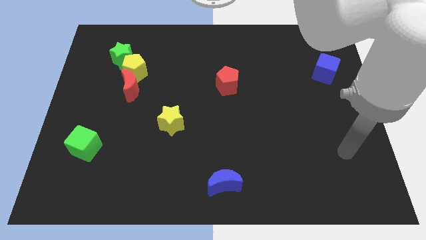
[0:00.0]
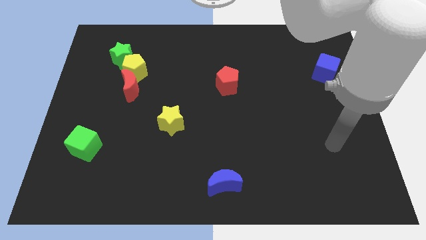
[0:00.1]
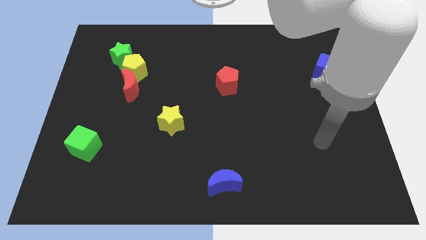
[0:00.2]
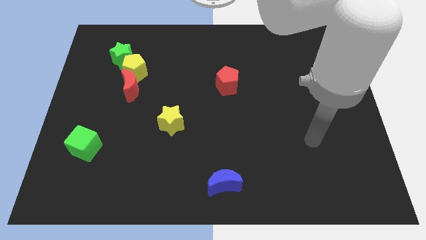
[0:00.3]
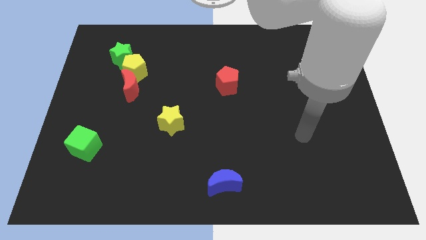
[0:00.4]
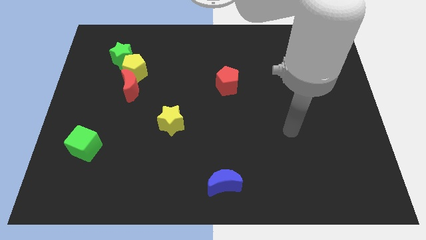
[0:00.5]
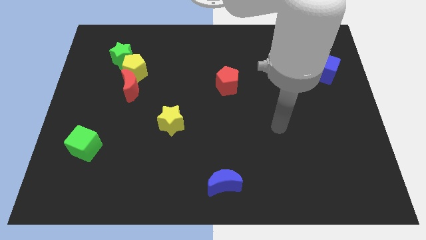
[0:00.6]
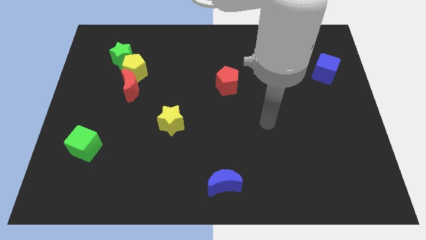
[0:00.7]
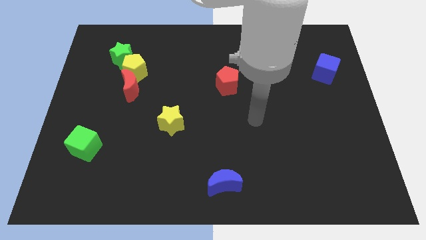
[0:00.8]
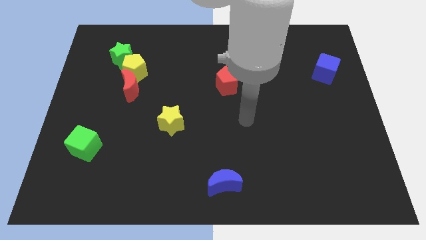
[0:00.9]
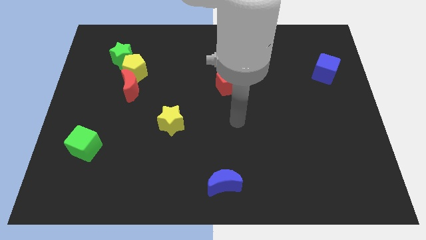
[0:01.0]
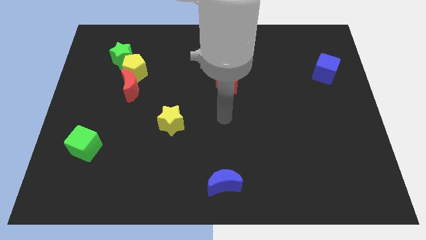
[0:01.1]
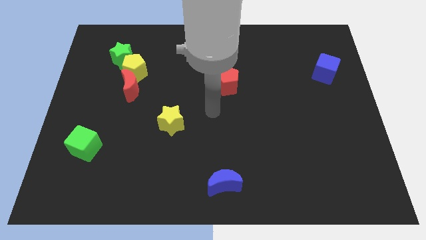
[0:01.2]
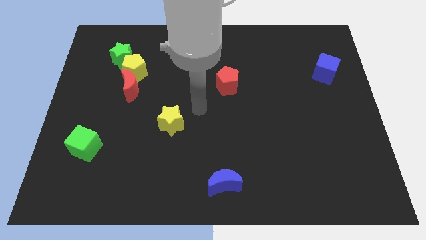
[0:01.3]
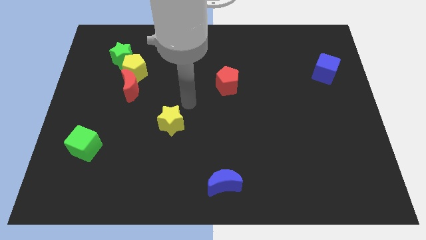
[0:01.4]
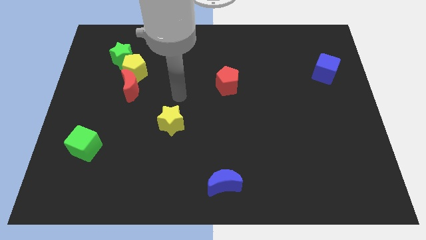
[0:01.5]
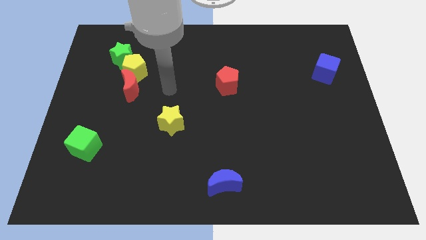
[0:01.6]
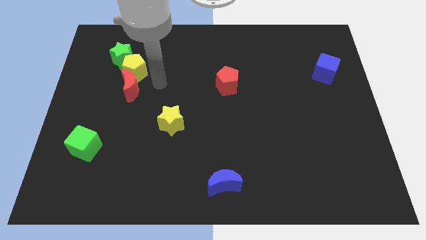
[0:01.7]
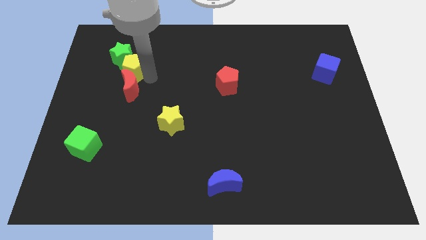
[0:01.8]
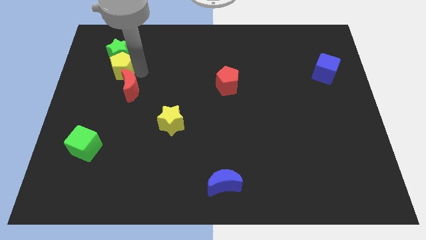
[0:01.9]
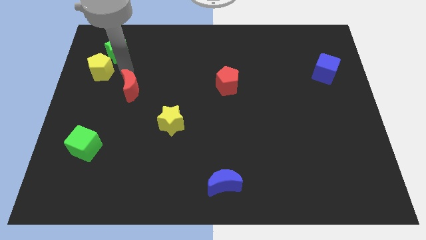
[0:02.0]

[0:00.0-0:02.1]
pull the red moon apart from the yellow pentagon

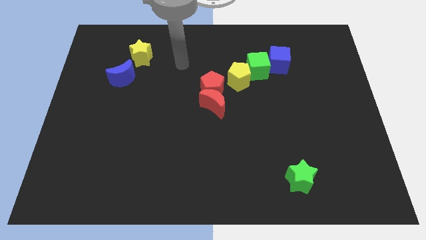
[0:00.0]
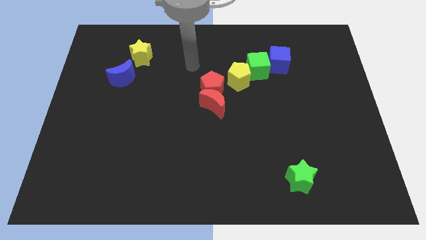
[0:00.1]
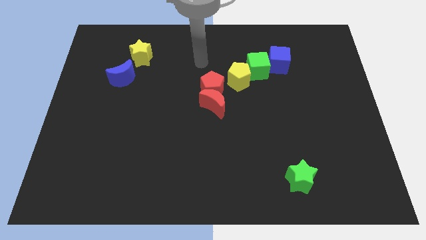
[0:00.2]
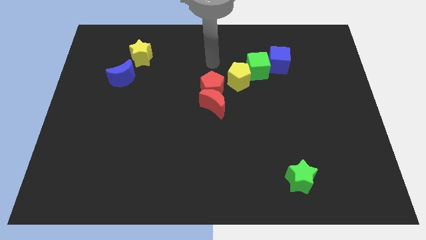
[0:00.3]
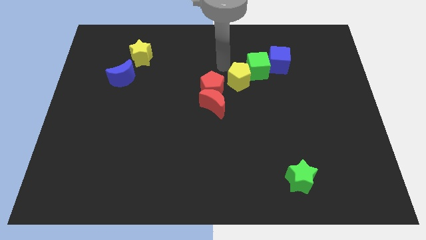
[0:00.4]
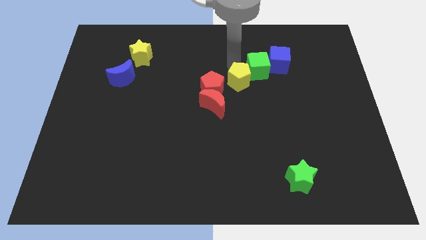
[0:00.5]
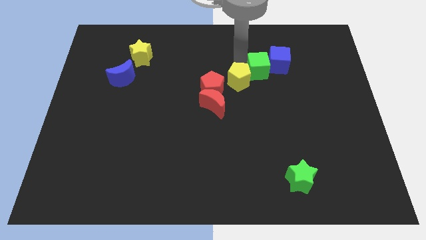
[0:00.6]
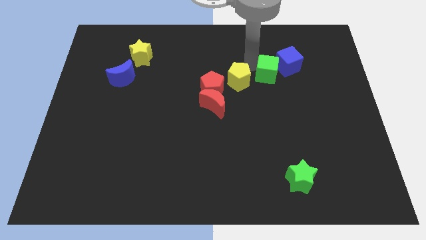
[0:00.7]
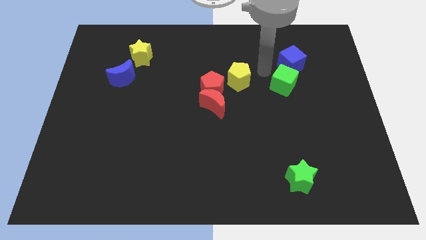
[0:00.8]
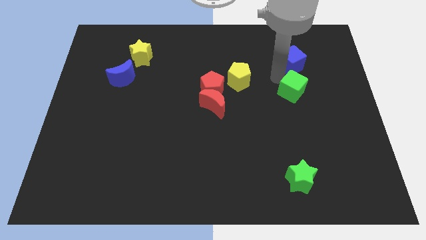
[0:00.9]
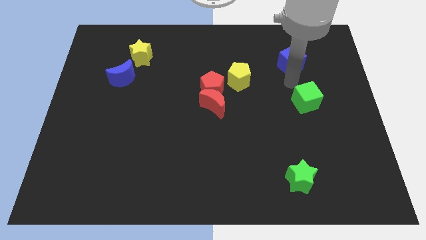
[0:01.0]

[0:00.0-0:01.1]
move the blue cube away from the green cube

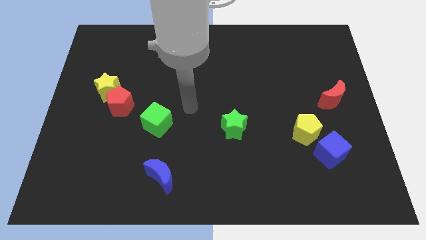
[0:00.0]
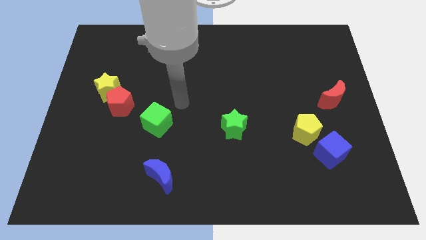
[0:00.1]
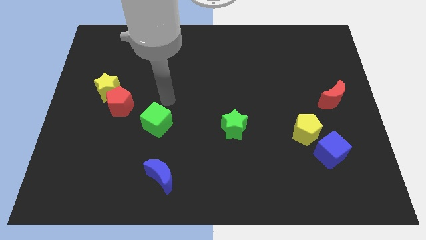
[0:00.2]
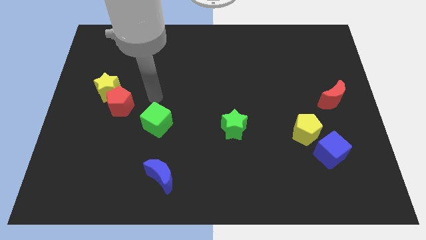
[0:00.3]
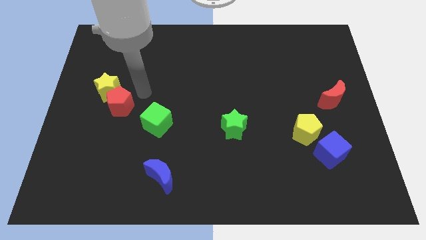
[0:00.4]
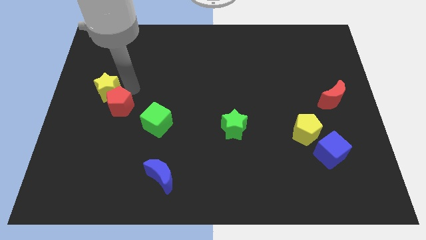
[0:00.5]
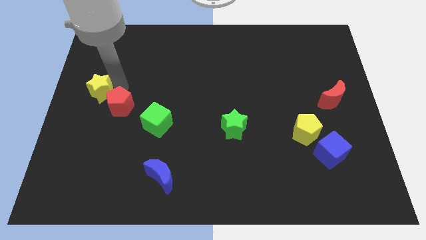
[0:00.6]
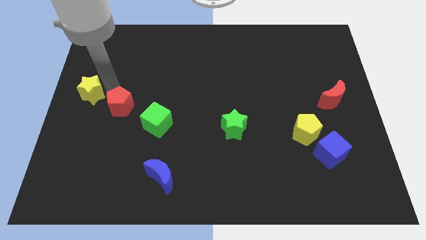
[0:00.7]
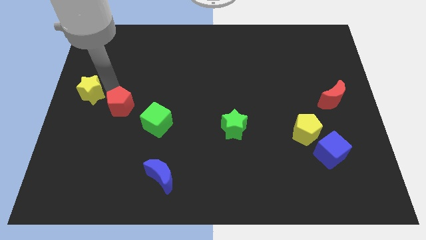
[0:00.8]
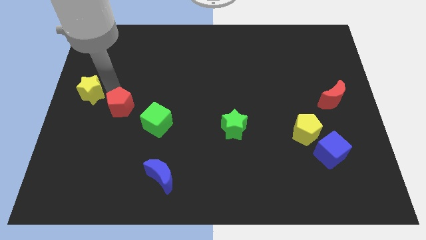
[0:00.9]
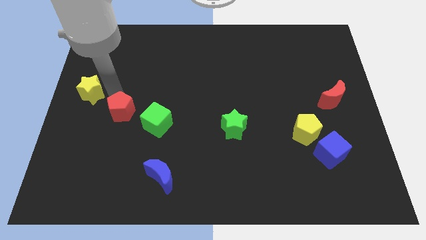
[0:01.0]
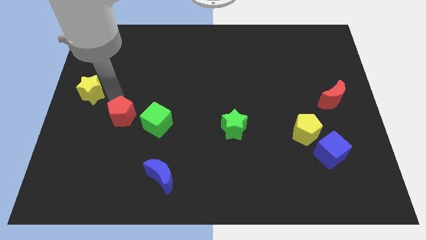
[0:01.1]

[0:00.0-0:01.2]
separate the red pentagon from the yellow star

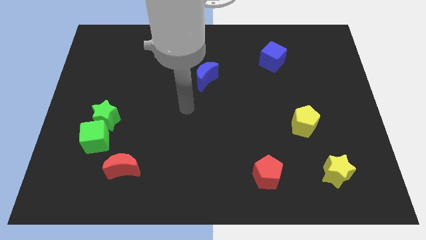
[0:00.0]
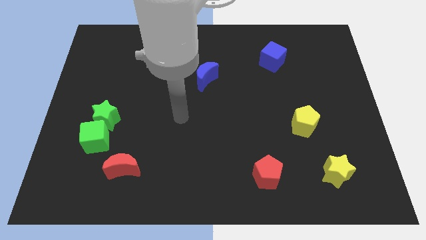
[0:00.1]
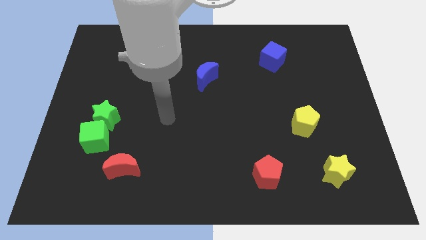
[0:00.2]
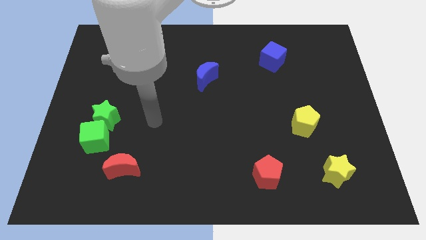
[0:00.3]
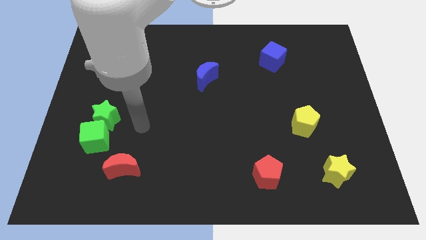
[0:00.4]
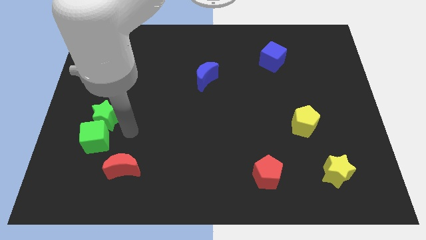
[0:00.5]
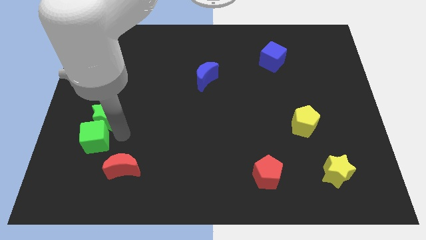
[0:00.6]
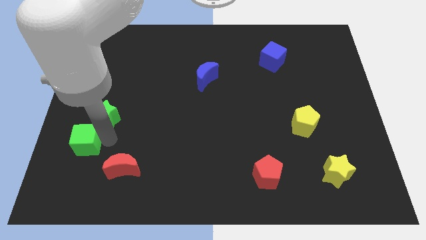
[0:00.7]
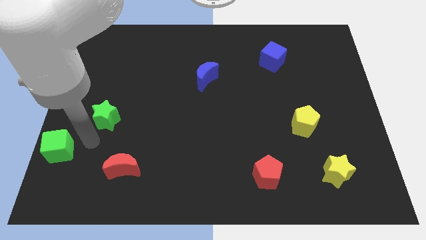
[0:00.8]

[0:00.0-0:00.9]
move the green star away from the green cube

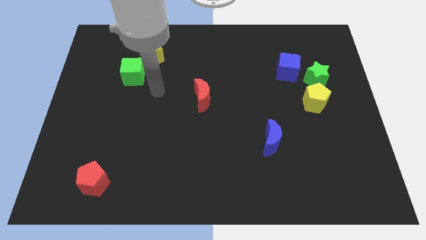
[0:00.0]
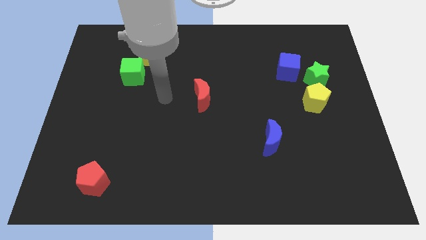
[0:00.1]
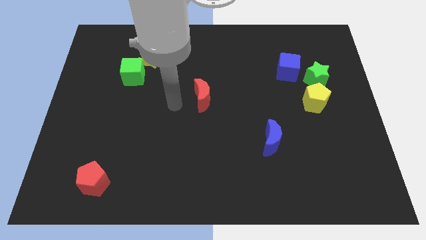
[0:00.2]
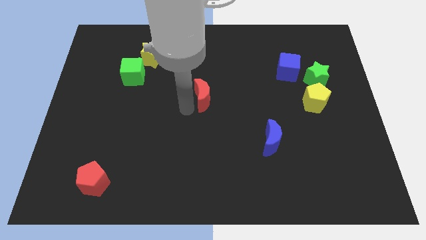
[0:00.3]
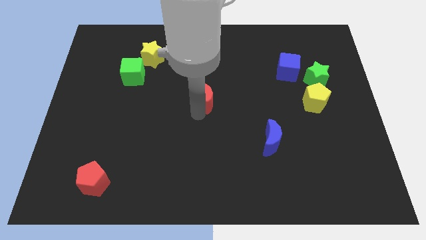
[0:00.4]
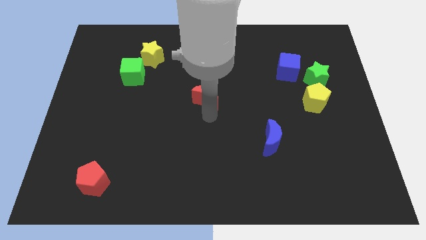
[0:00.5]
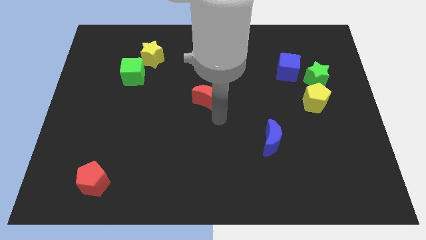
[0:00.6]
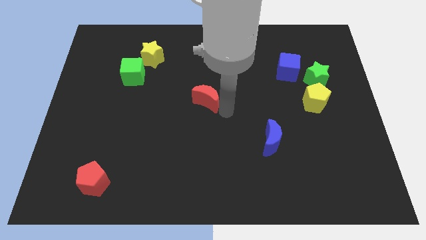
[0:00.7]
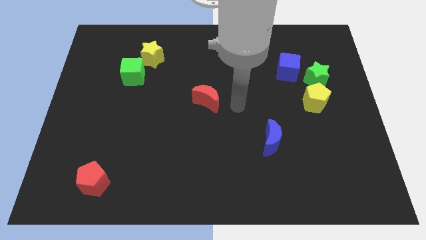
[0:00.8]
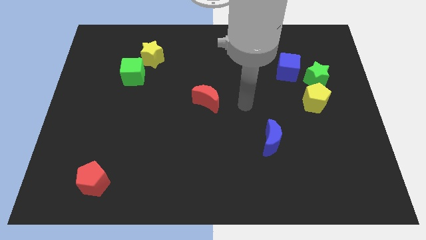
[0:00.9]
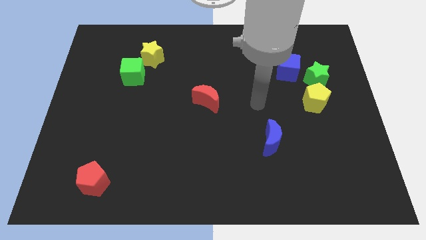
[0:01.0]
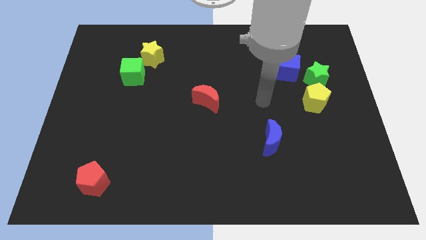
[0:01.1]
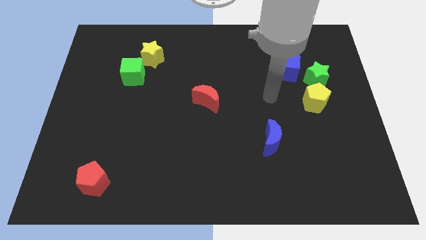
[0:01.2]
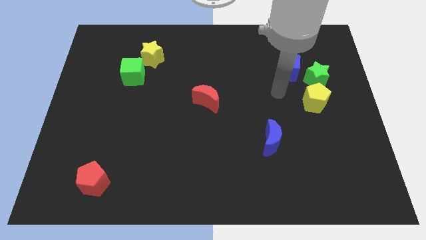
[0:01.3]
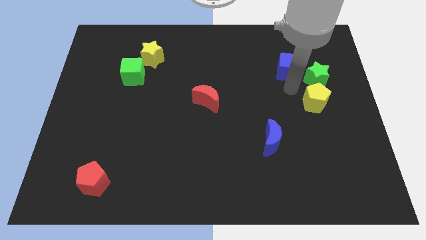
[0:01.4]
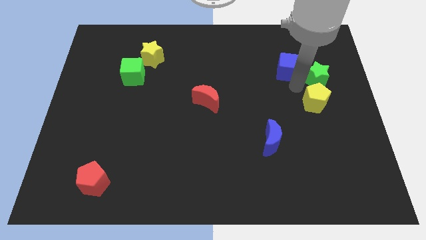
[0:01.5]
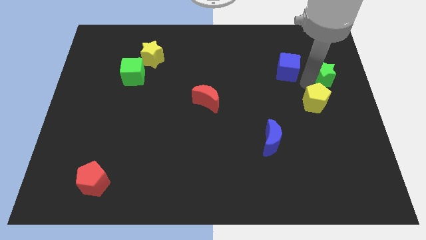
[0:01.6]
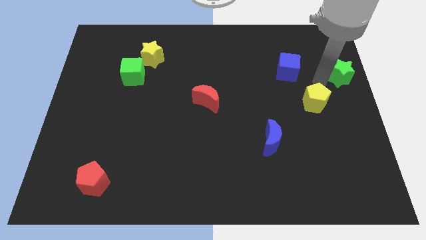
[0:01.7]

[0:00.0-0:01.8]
pull the yellow pentagon apart from the green star

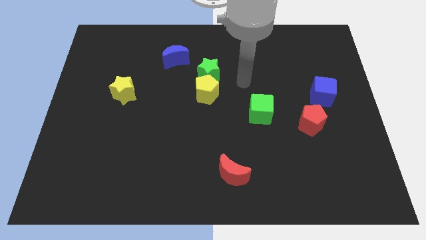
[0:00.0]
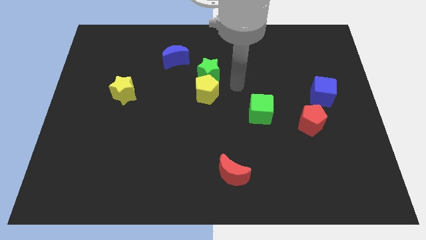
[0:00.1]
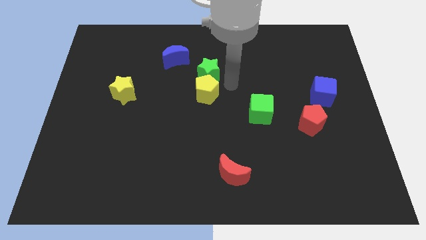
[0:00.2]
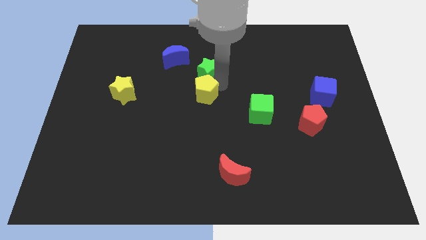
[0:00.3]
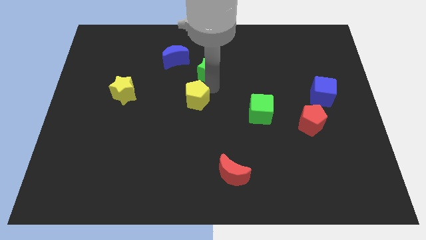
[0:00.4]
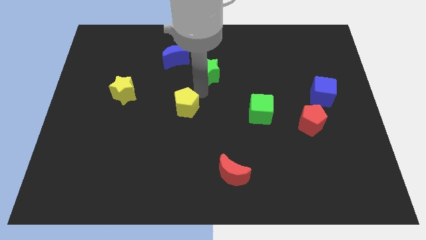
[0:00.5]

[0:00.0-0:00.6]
separate the green star from the yellow pentagon

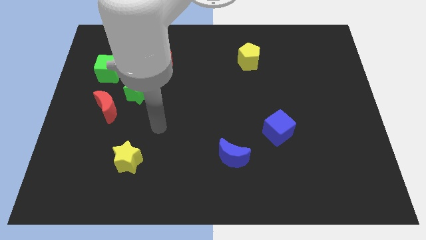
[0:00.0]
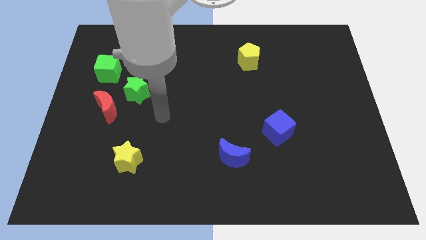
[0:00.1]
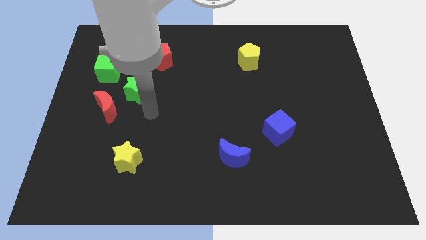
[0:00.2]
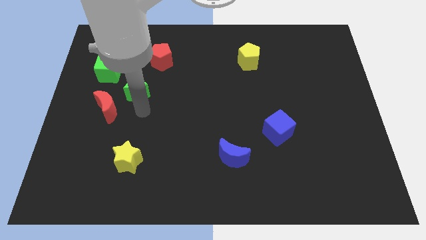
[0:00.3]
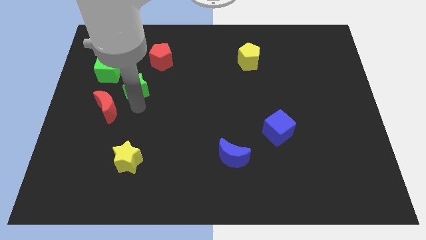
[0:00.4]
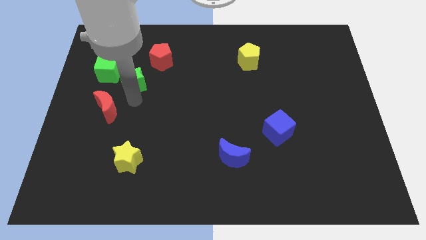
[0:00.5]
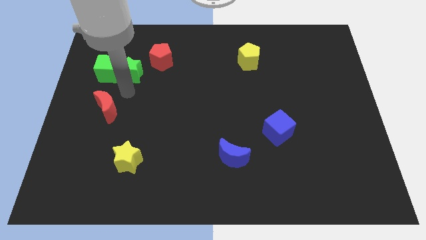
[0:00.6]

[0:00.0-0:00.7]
move the red moon away from the green star

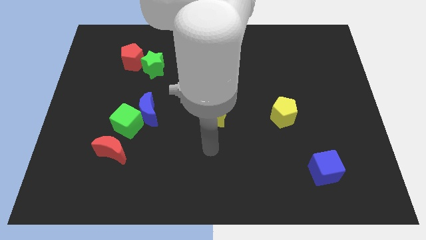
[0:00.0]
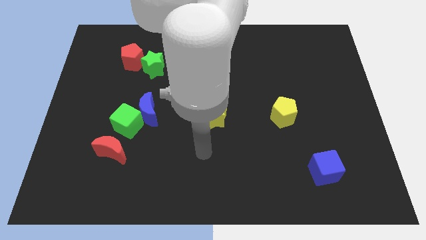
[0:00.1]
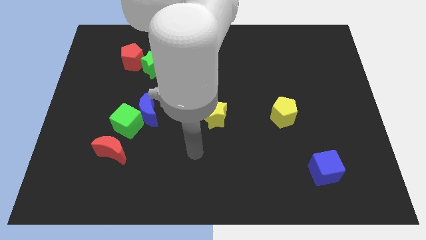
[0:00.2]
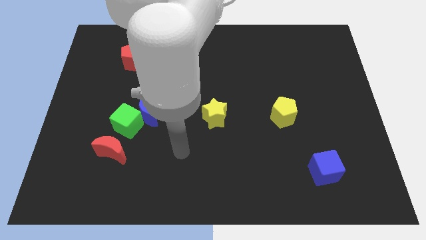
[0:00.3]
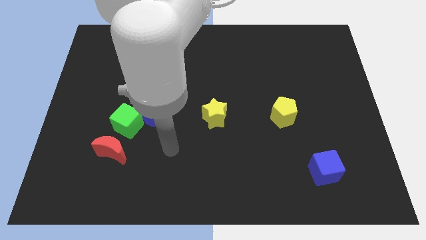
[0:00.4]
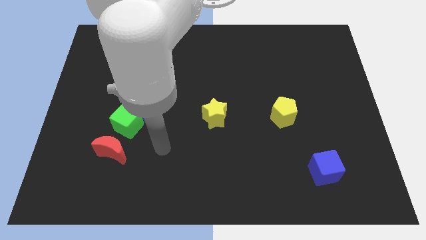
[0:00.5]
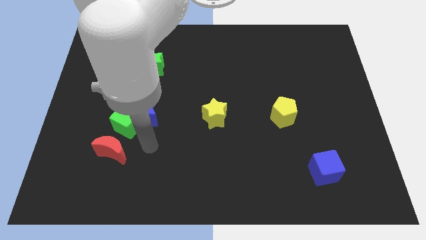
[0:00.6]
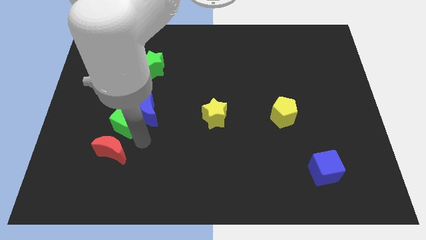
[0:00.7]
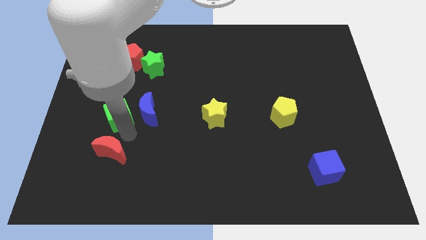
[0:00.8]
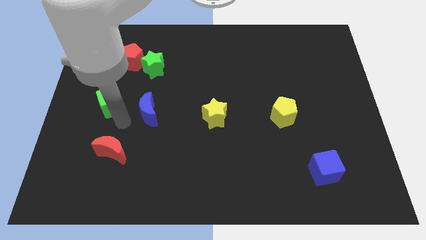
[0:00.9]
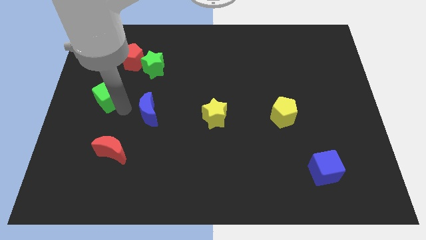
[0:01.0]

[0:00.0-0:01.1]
separate the blue moon from the green cube
